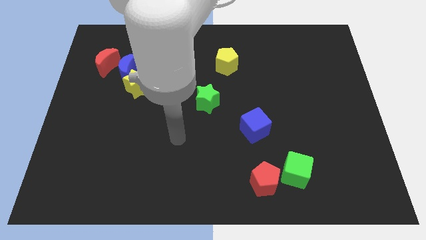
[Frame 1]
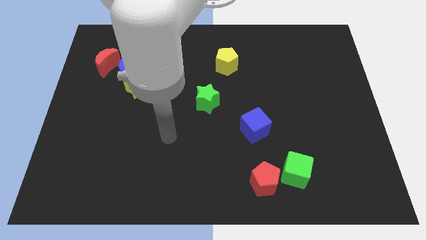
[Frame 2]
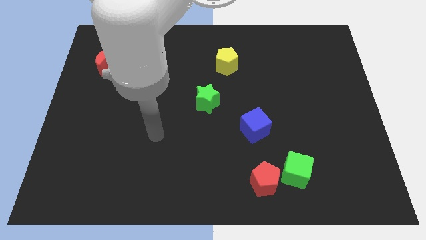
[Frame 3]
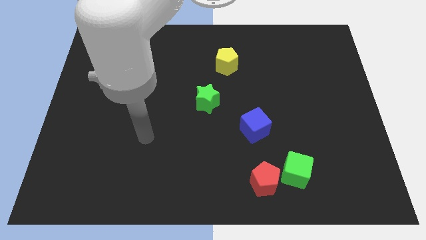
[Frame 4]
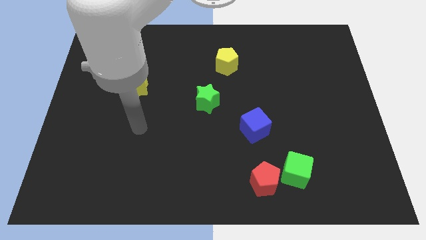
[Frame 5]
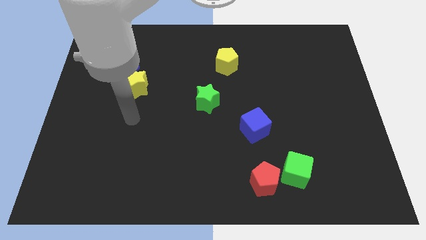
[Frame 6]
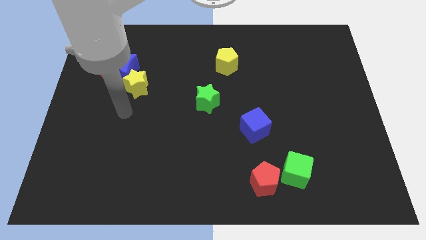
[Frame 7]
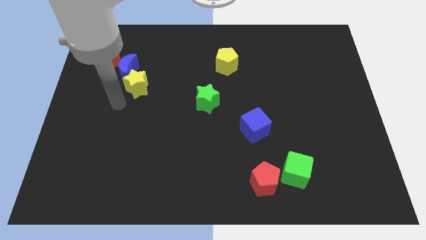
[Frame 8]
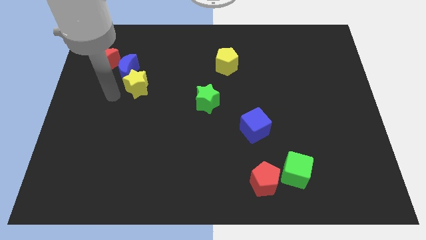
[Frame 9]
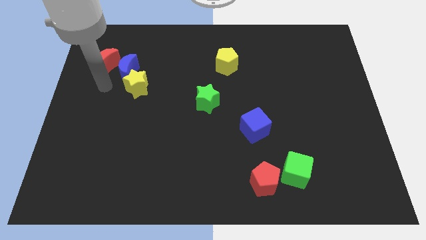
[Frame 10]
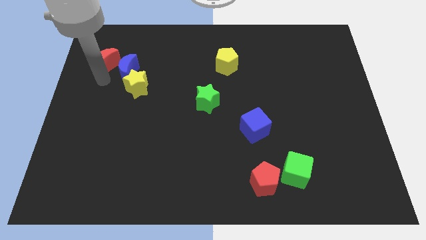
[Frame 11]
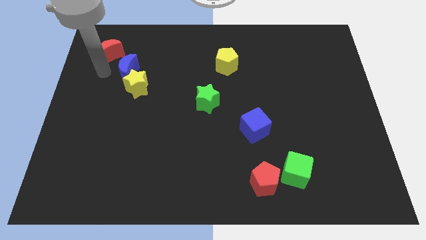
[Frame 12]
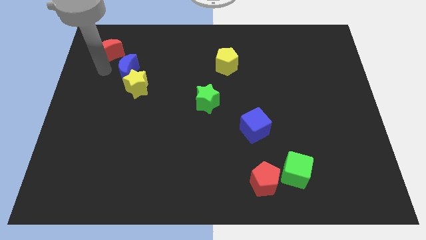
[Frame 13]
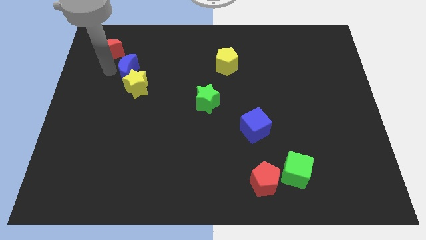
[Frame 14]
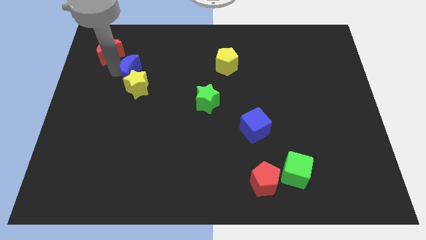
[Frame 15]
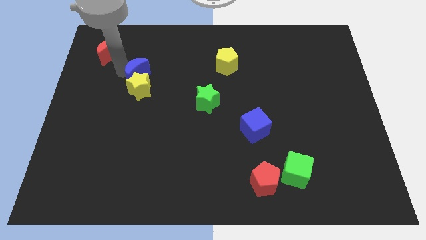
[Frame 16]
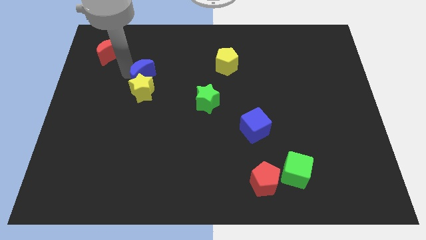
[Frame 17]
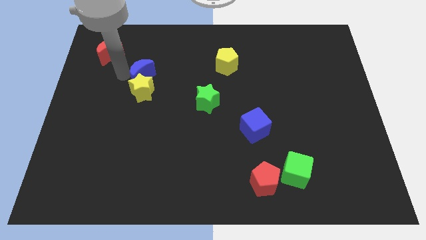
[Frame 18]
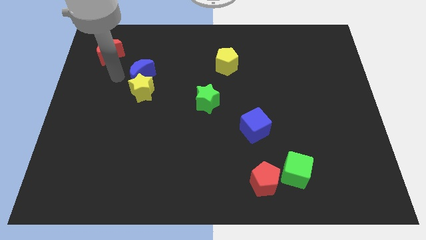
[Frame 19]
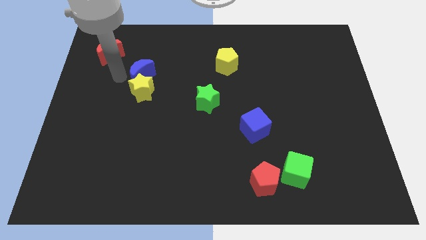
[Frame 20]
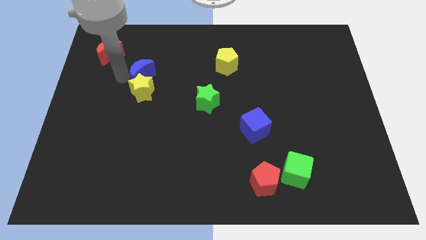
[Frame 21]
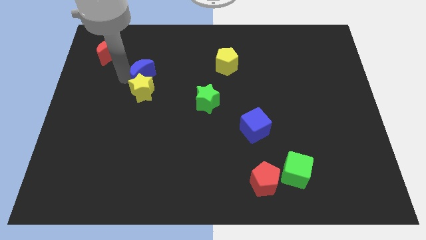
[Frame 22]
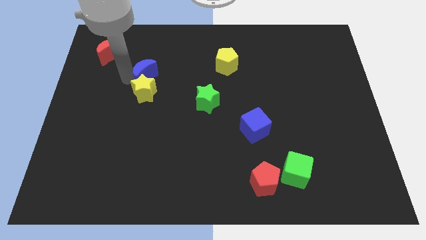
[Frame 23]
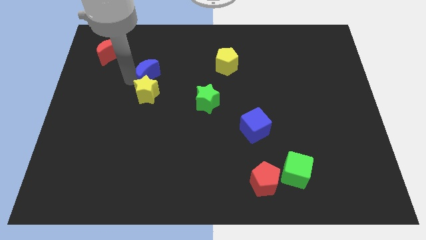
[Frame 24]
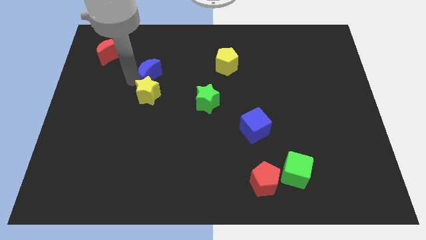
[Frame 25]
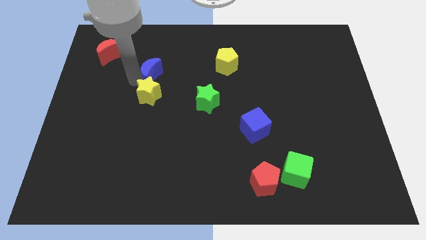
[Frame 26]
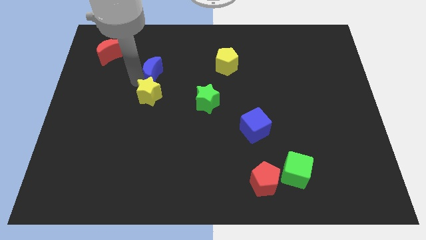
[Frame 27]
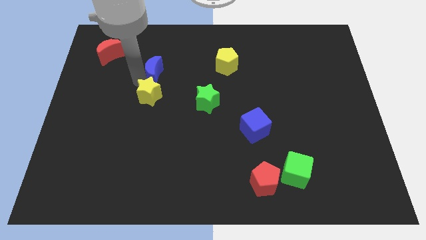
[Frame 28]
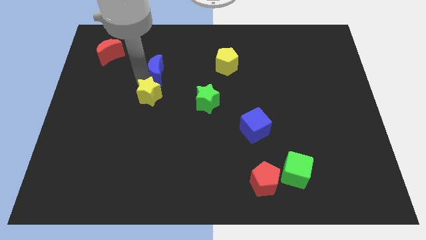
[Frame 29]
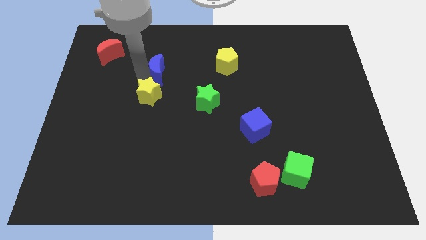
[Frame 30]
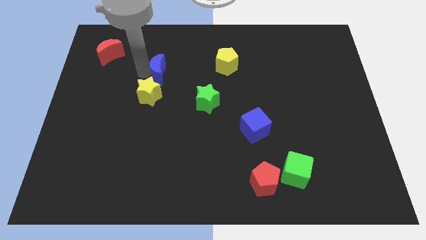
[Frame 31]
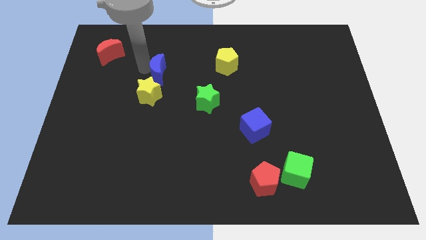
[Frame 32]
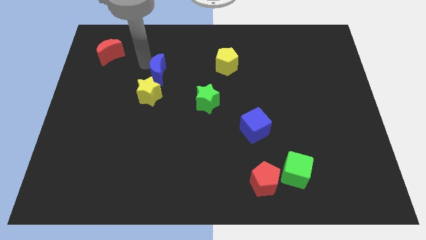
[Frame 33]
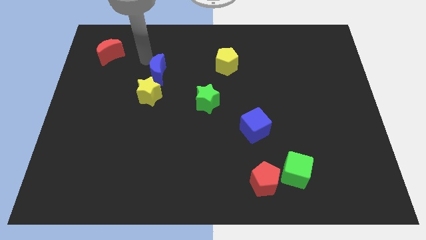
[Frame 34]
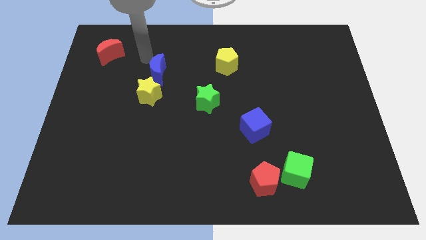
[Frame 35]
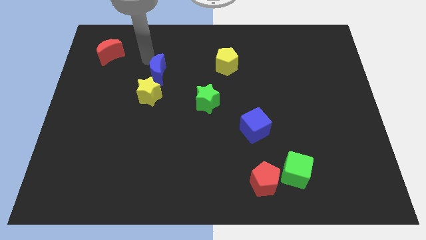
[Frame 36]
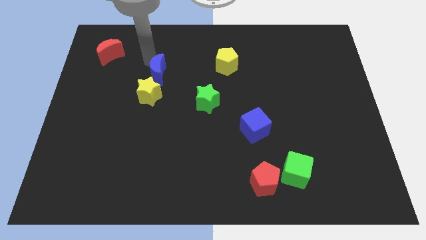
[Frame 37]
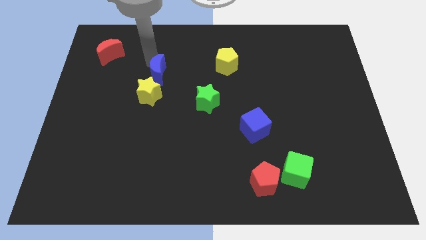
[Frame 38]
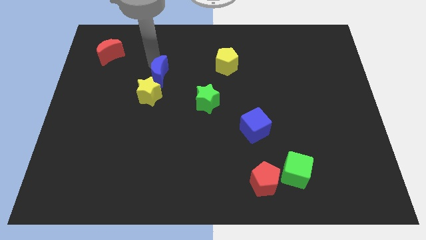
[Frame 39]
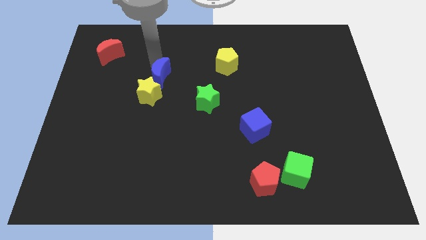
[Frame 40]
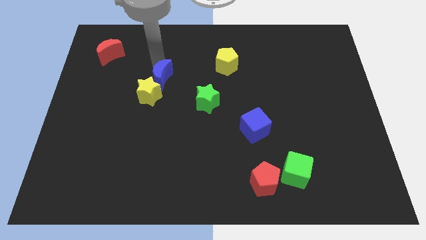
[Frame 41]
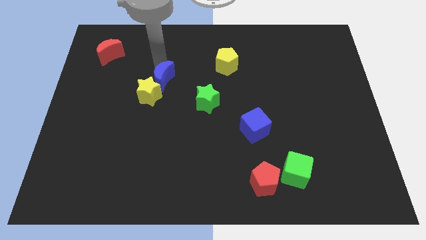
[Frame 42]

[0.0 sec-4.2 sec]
slightly move the blue moon downwards and then to the right

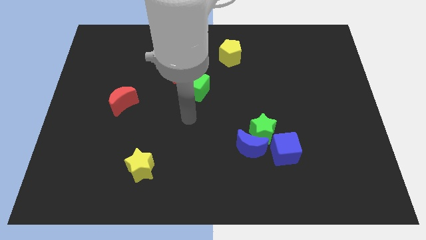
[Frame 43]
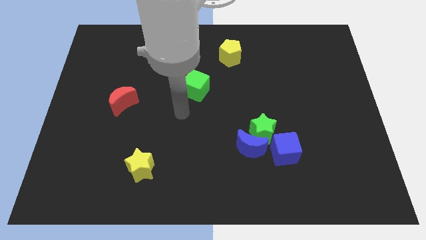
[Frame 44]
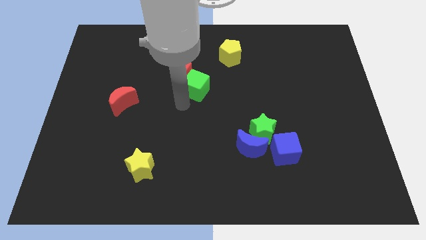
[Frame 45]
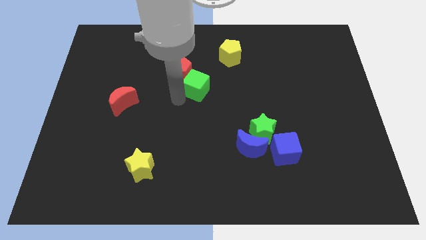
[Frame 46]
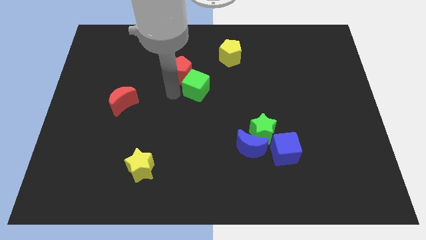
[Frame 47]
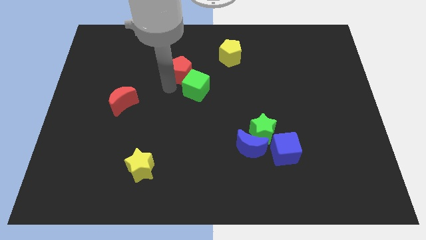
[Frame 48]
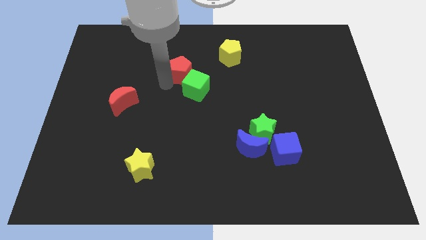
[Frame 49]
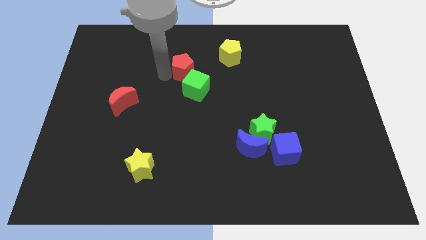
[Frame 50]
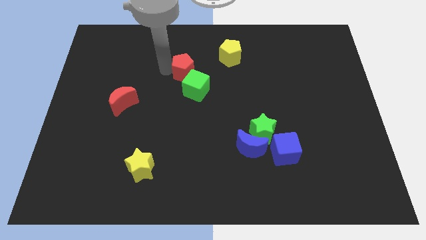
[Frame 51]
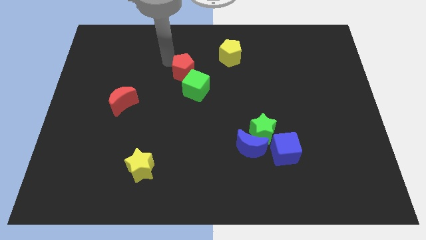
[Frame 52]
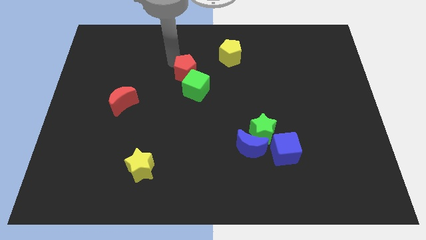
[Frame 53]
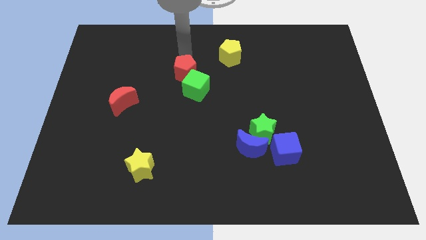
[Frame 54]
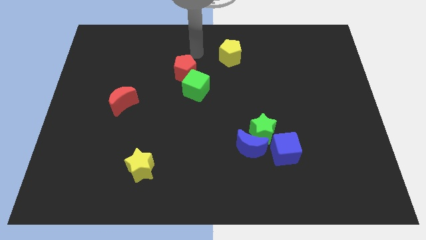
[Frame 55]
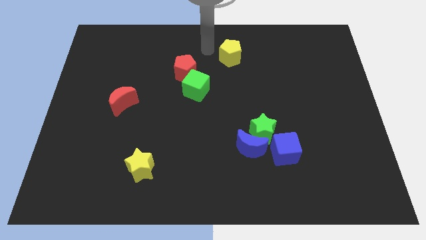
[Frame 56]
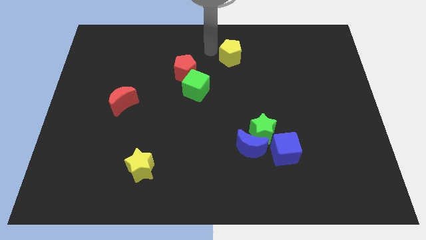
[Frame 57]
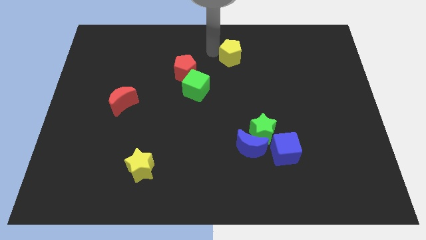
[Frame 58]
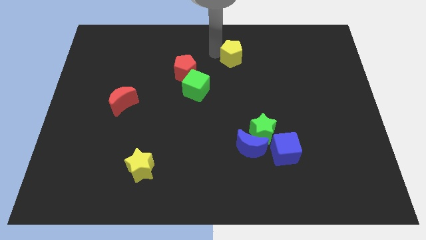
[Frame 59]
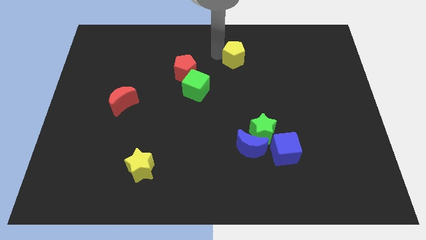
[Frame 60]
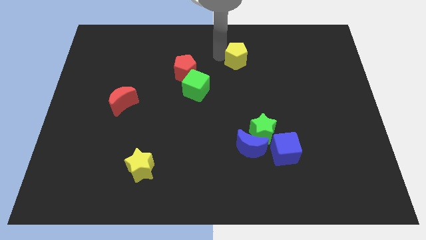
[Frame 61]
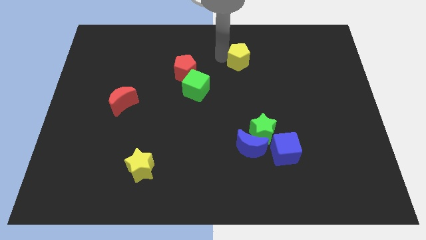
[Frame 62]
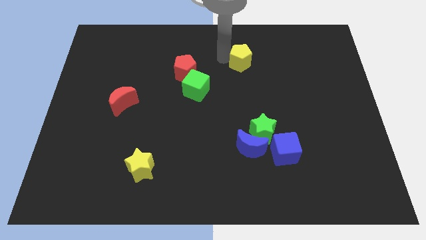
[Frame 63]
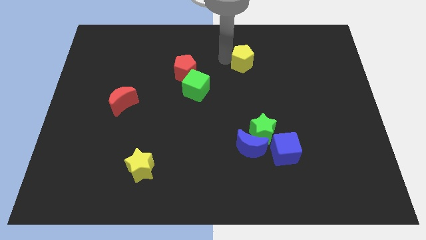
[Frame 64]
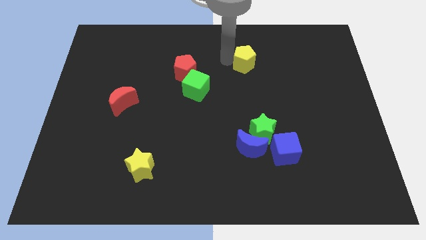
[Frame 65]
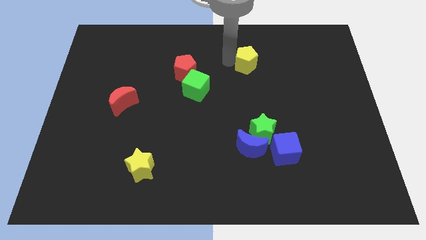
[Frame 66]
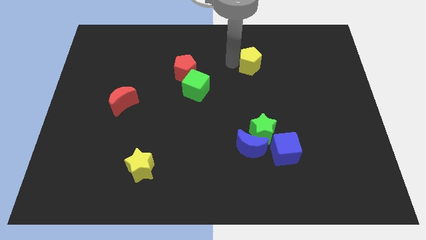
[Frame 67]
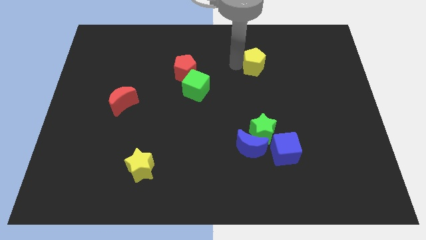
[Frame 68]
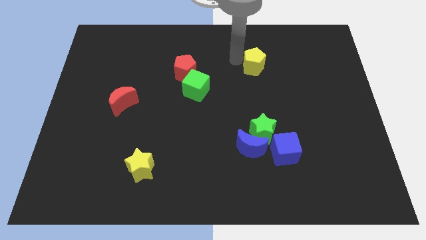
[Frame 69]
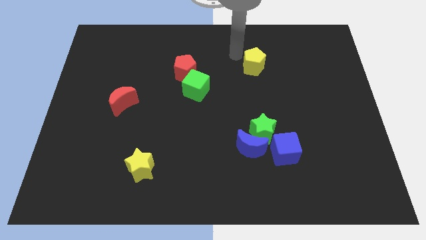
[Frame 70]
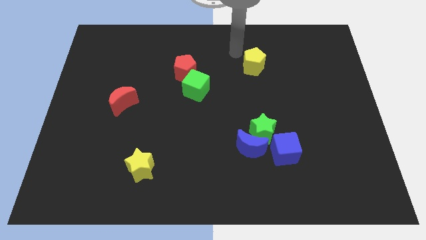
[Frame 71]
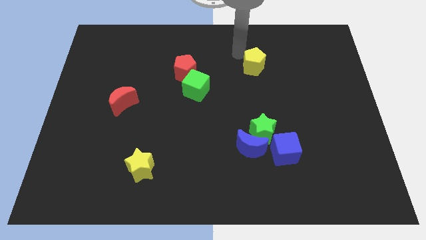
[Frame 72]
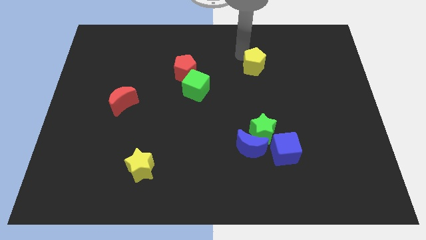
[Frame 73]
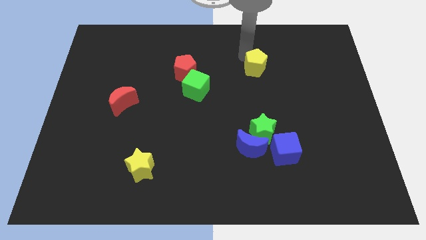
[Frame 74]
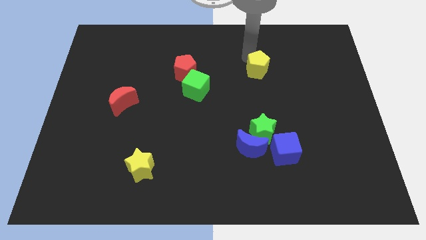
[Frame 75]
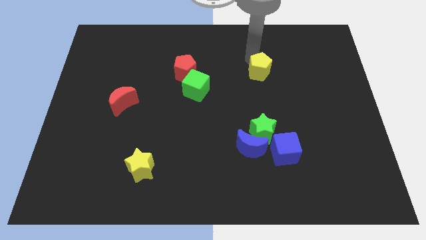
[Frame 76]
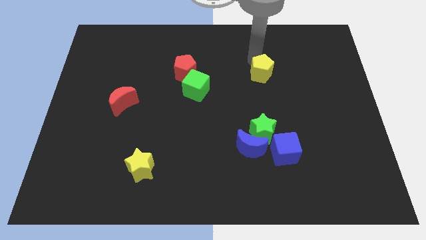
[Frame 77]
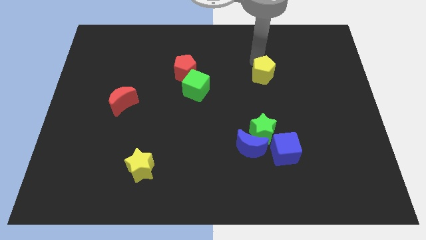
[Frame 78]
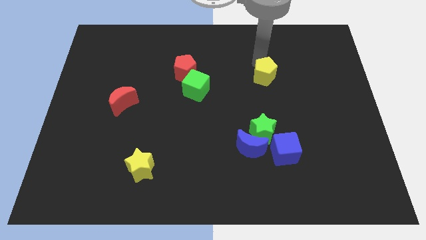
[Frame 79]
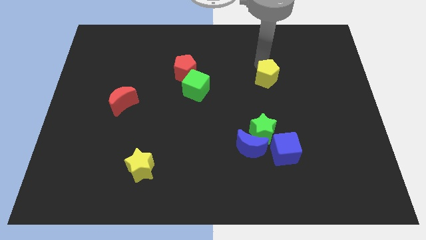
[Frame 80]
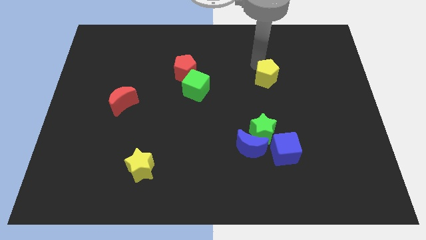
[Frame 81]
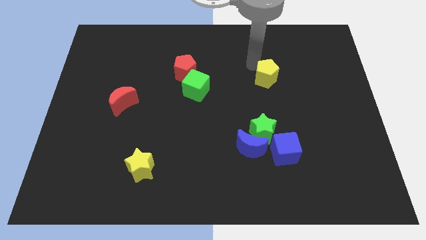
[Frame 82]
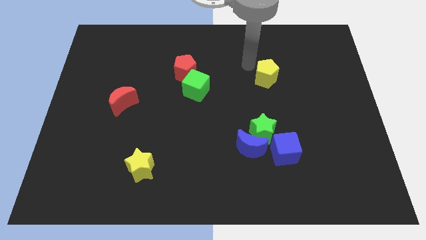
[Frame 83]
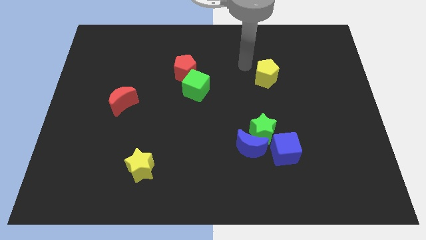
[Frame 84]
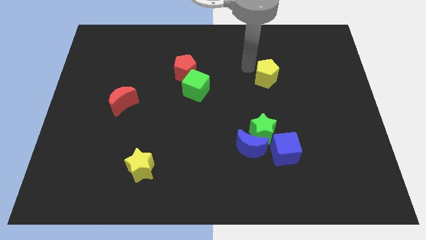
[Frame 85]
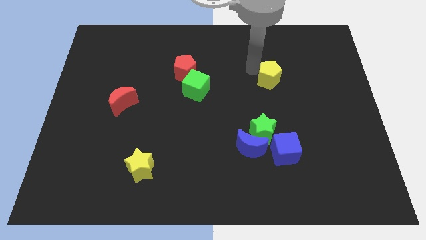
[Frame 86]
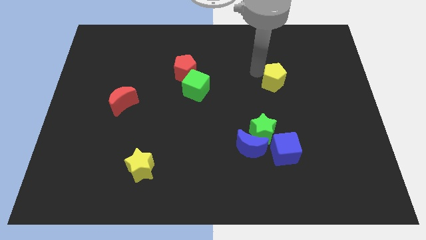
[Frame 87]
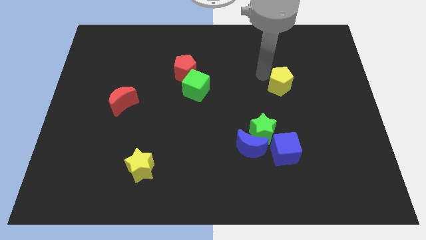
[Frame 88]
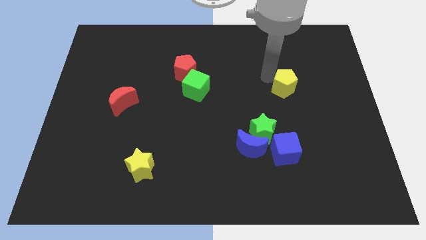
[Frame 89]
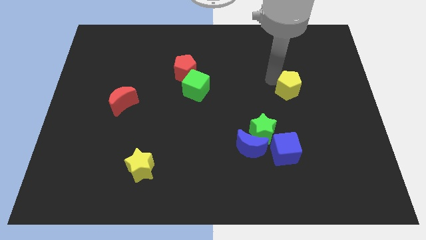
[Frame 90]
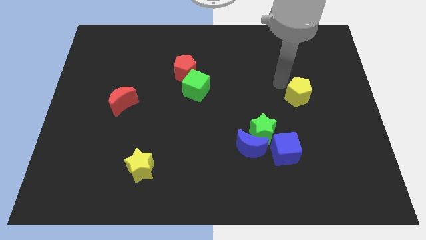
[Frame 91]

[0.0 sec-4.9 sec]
push the yellow pentagon downwards and right
